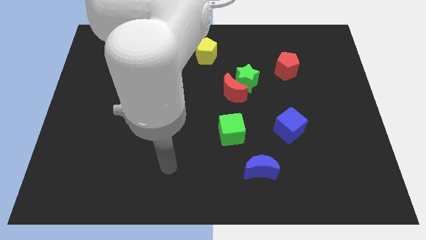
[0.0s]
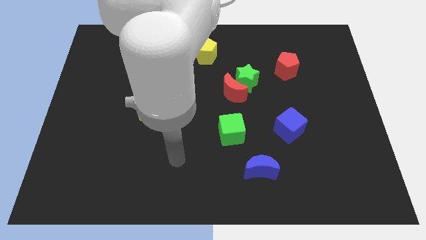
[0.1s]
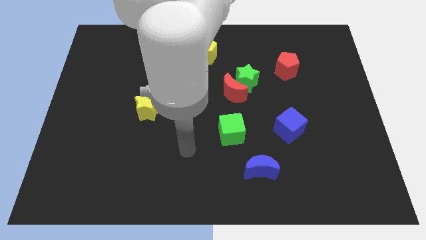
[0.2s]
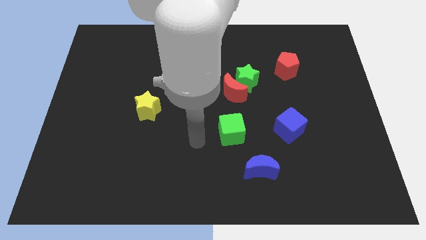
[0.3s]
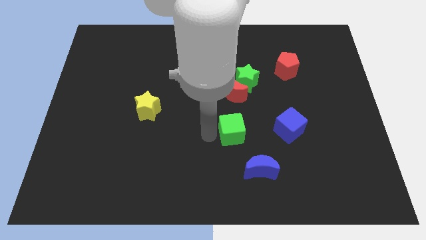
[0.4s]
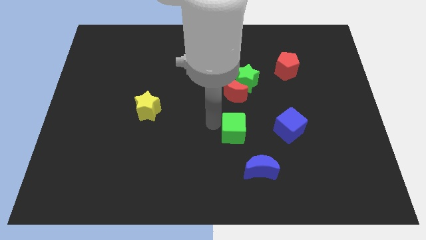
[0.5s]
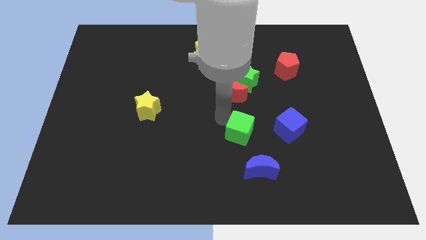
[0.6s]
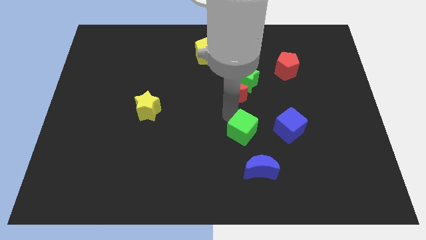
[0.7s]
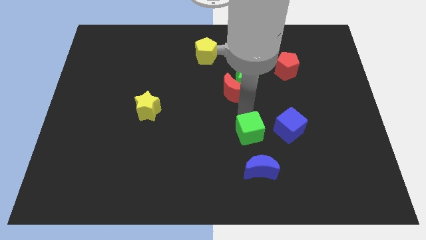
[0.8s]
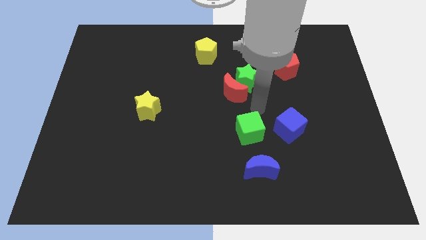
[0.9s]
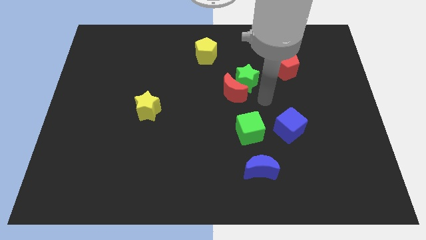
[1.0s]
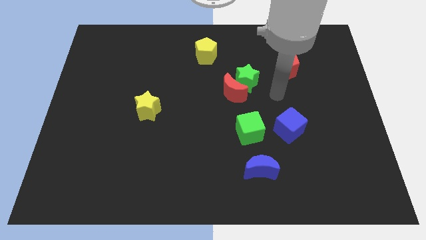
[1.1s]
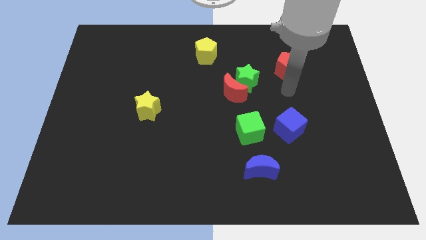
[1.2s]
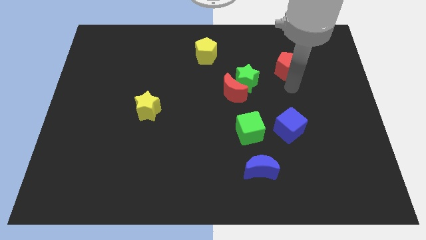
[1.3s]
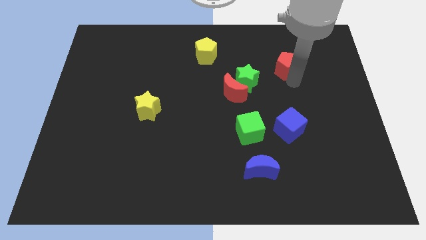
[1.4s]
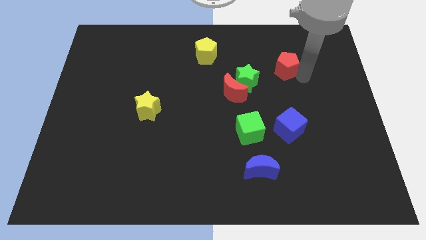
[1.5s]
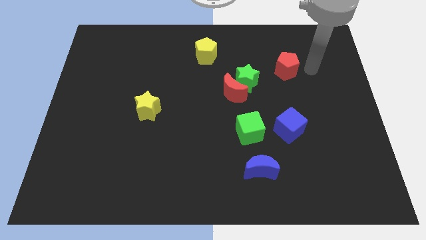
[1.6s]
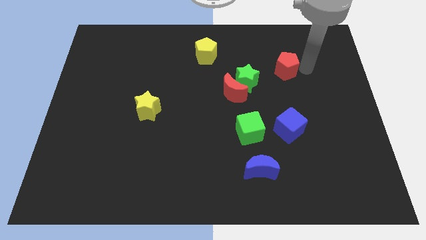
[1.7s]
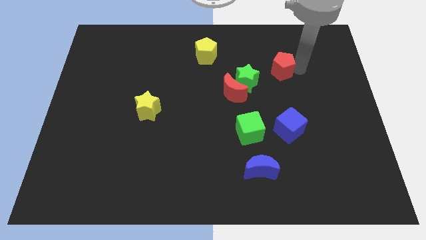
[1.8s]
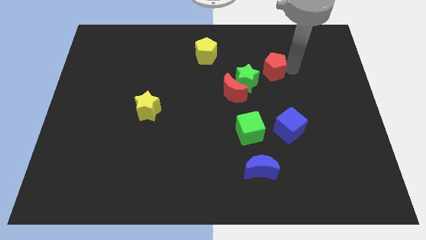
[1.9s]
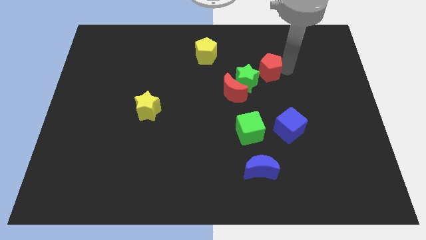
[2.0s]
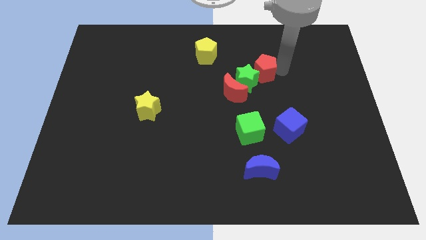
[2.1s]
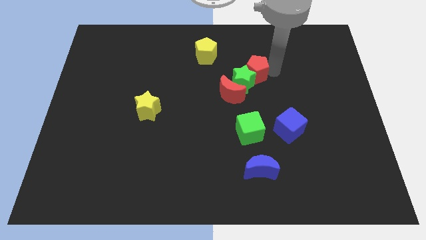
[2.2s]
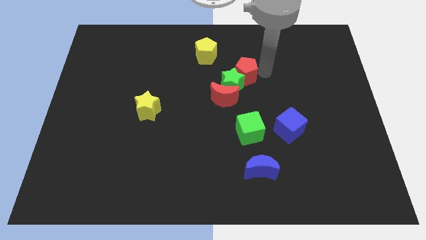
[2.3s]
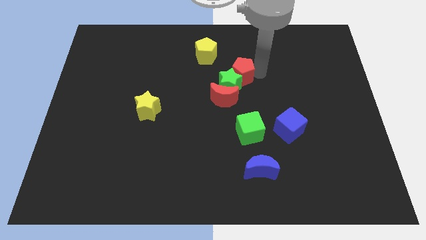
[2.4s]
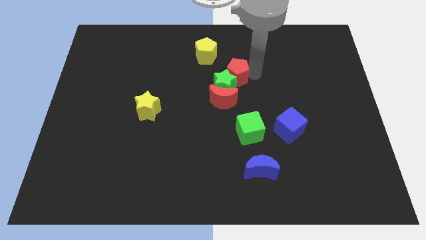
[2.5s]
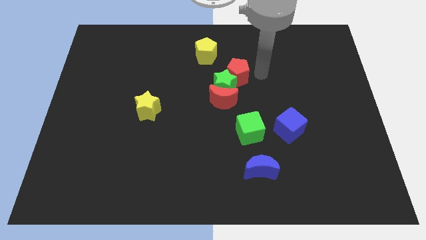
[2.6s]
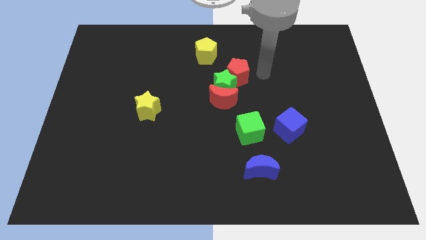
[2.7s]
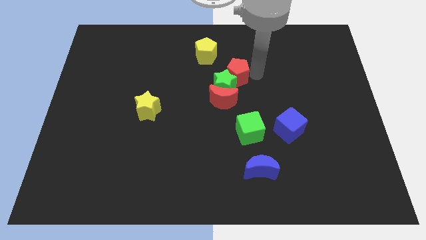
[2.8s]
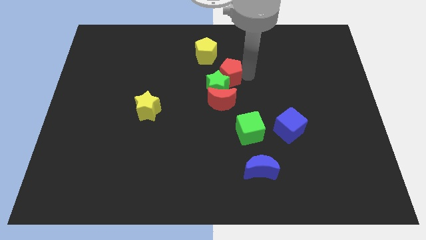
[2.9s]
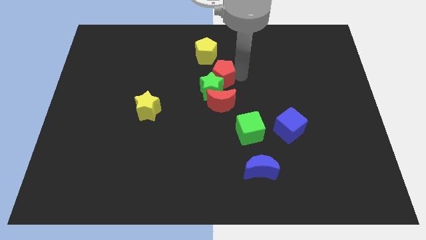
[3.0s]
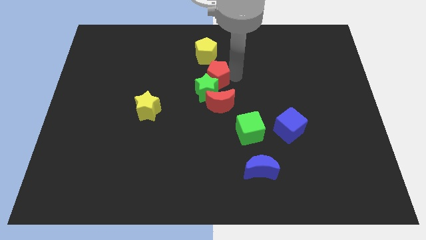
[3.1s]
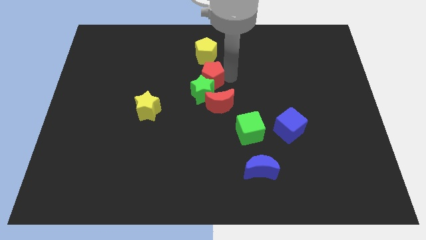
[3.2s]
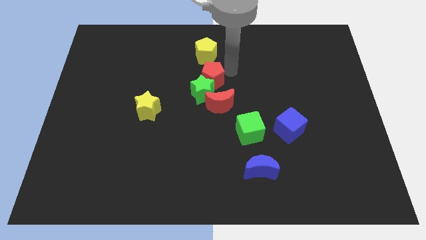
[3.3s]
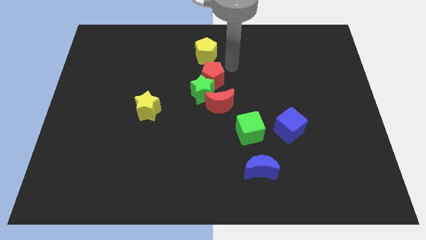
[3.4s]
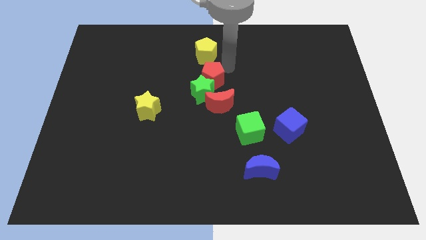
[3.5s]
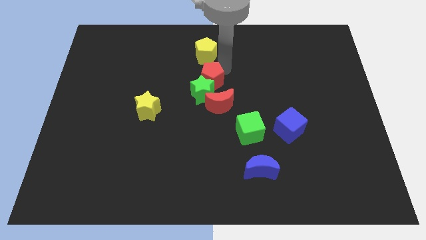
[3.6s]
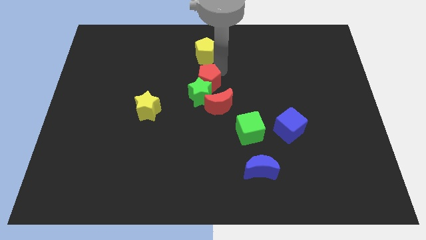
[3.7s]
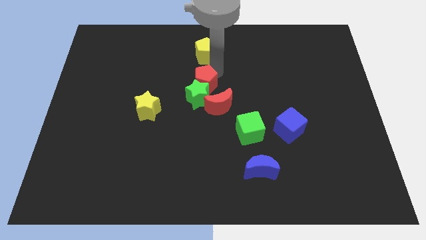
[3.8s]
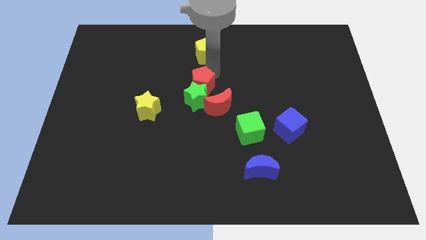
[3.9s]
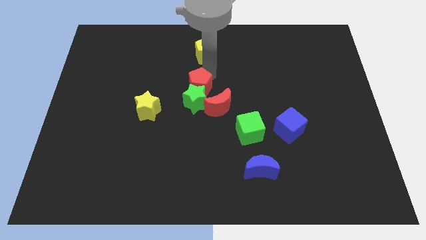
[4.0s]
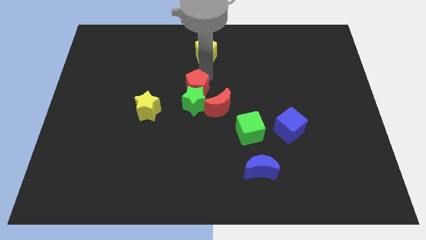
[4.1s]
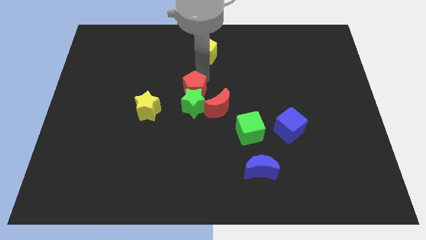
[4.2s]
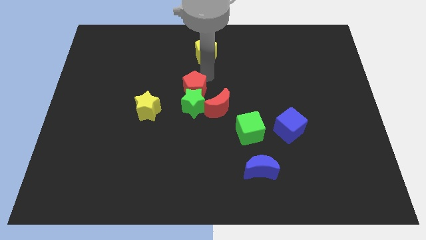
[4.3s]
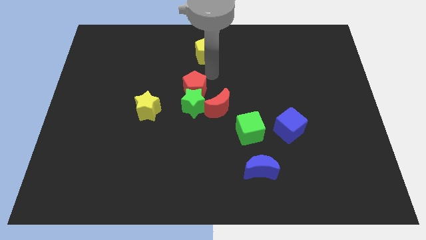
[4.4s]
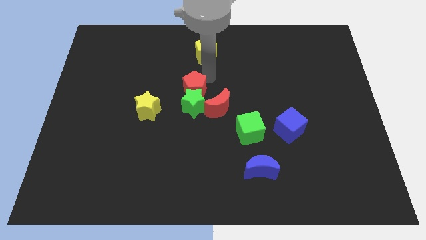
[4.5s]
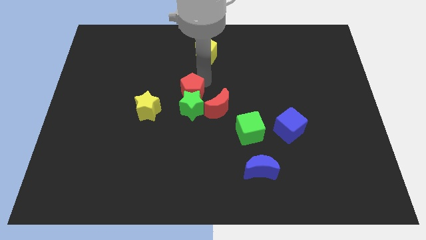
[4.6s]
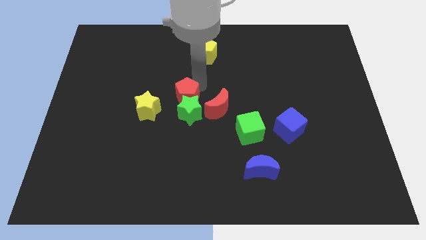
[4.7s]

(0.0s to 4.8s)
put the red pentagon just left of the red moon

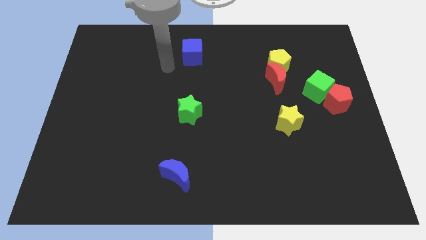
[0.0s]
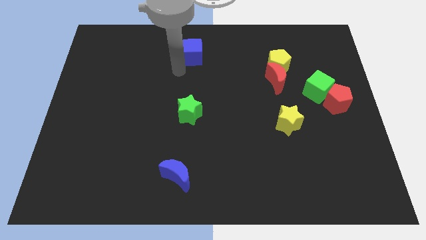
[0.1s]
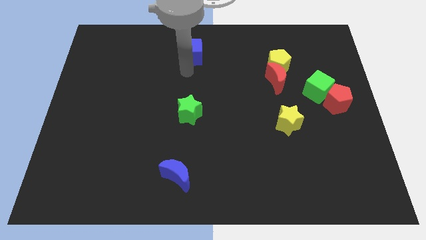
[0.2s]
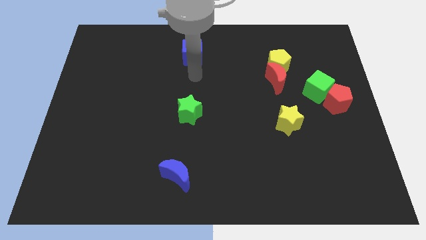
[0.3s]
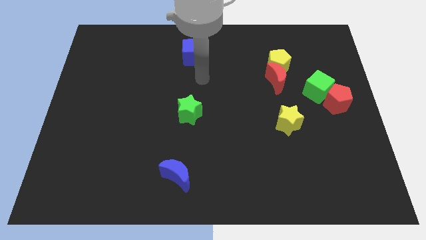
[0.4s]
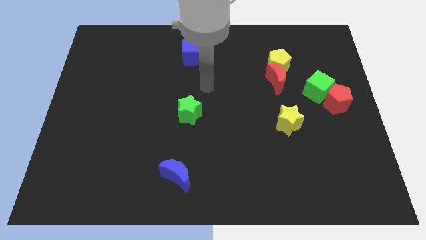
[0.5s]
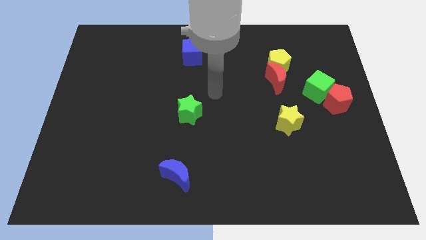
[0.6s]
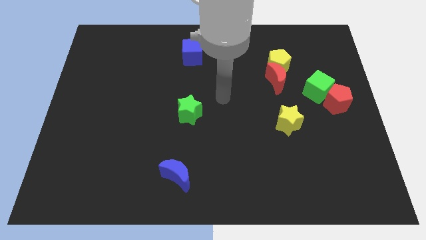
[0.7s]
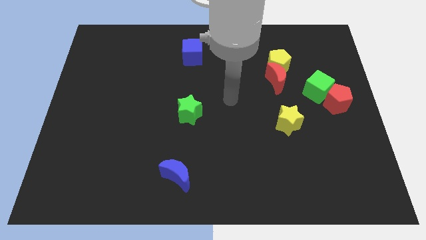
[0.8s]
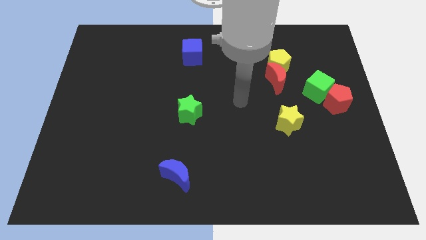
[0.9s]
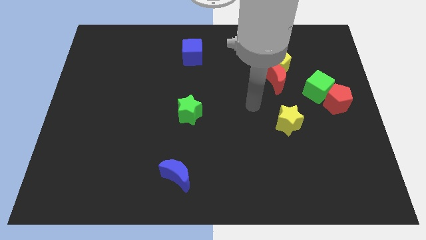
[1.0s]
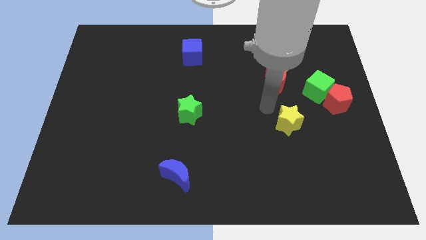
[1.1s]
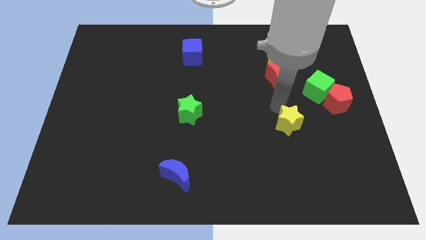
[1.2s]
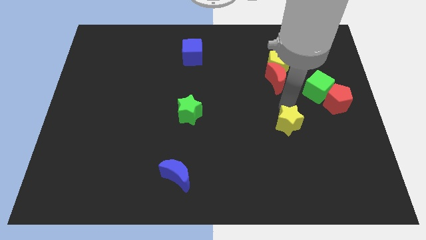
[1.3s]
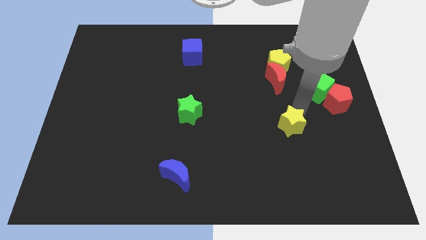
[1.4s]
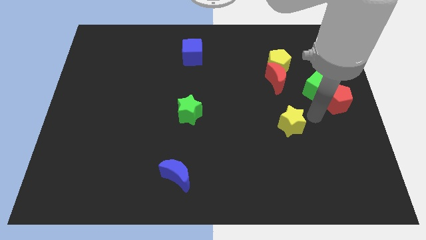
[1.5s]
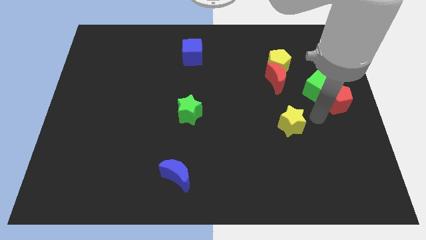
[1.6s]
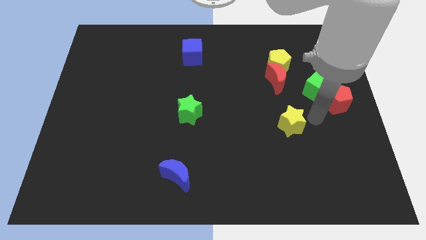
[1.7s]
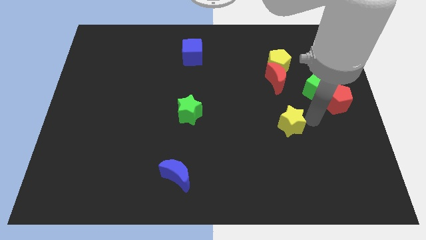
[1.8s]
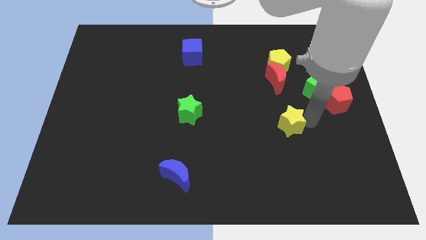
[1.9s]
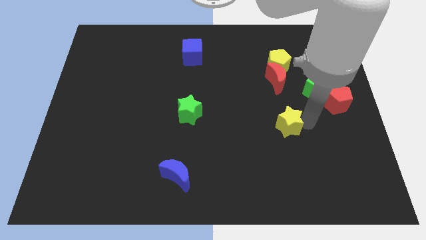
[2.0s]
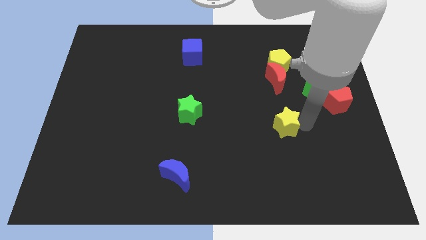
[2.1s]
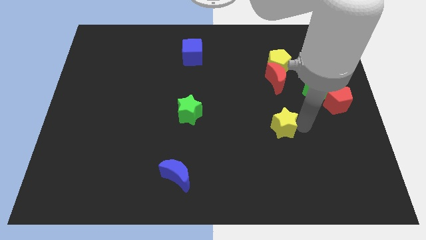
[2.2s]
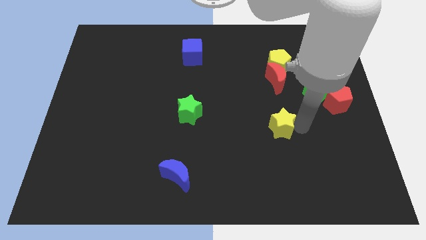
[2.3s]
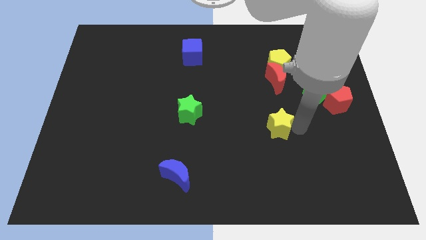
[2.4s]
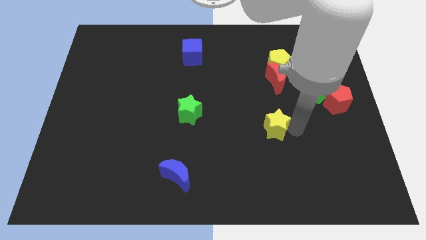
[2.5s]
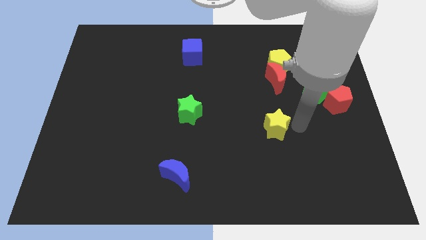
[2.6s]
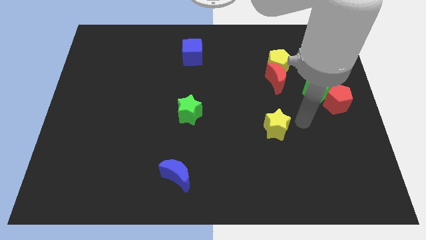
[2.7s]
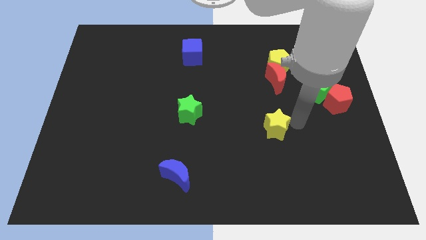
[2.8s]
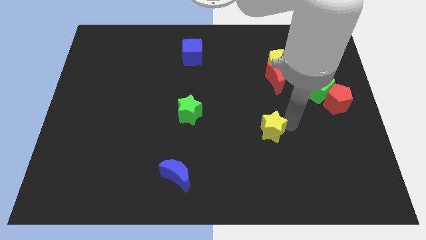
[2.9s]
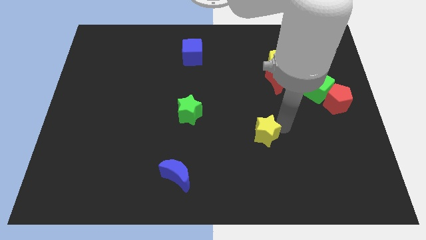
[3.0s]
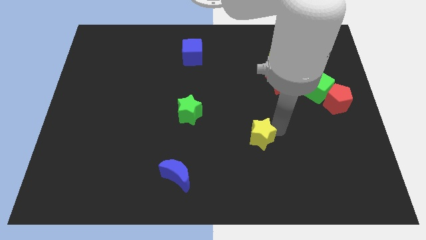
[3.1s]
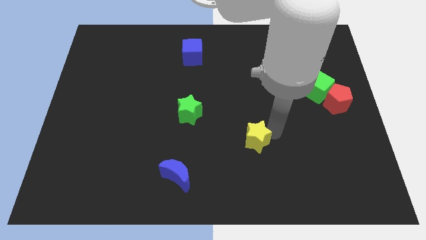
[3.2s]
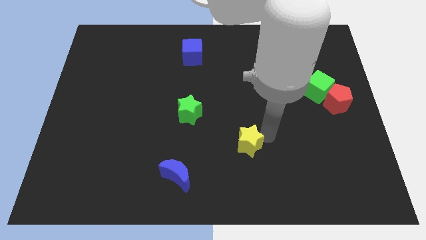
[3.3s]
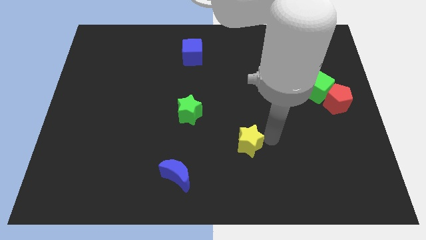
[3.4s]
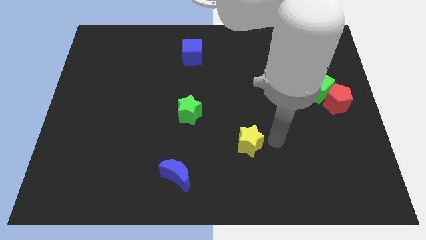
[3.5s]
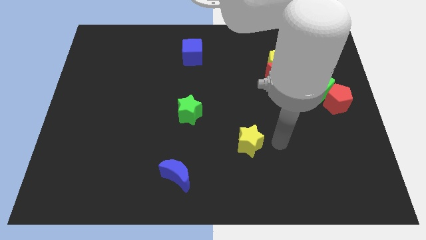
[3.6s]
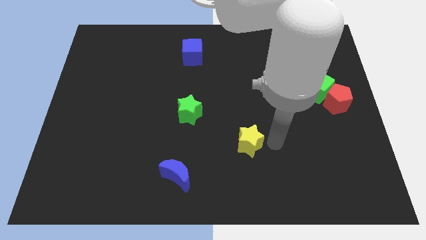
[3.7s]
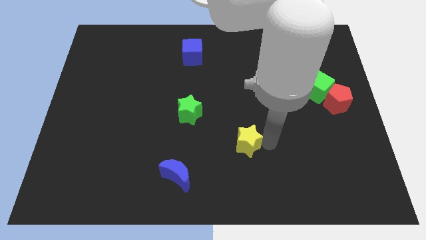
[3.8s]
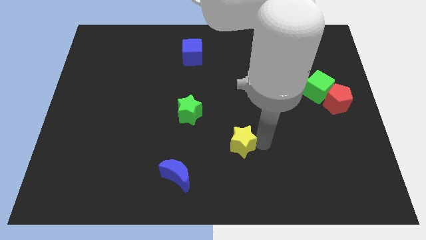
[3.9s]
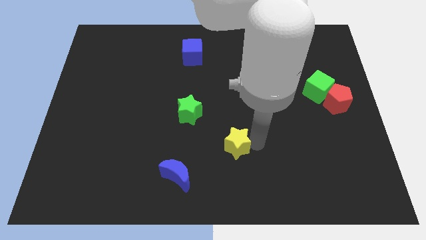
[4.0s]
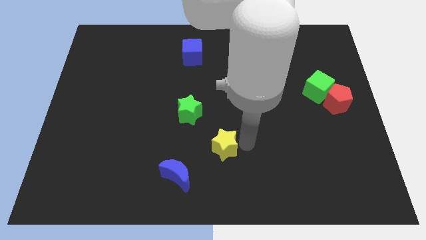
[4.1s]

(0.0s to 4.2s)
put the yellow star to the top right side of the blue moon
